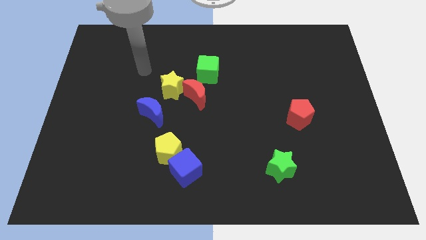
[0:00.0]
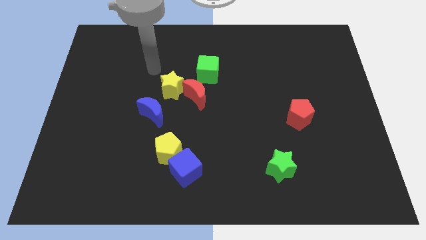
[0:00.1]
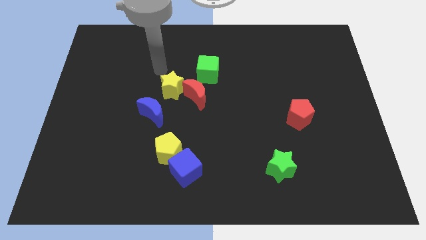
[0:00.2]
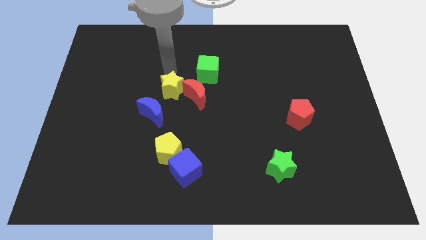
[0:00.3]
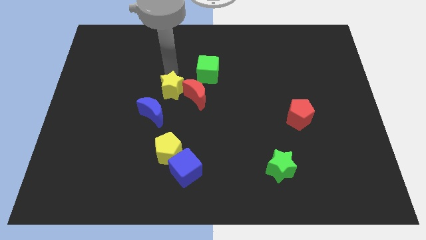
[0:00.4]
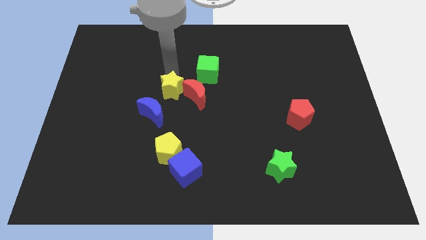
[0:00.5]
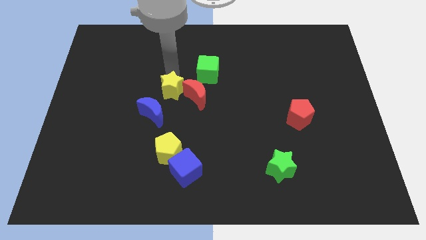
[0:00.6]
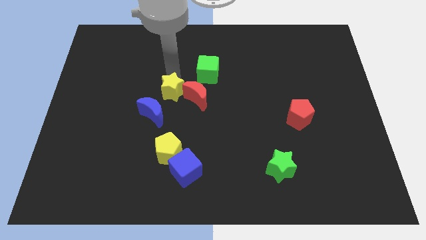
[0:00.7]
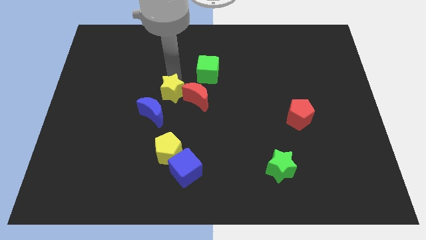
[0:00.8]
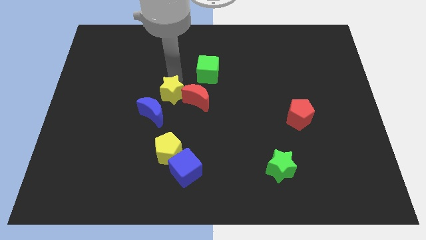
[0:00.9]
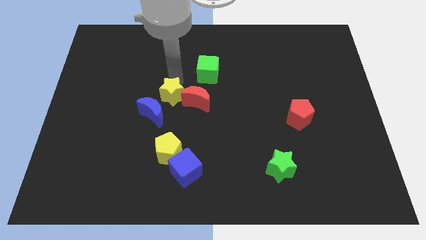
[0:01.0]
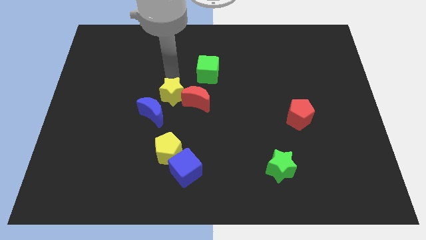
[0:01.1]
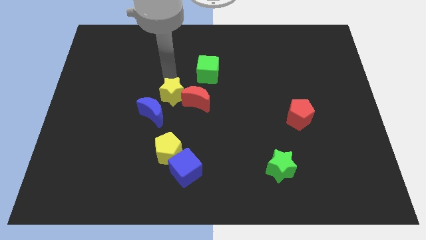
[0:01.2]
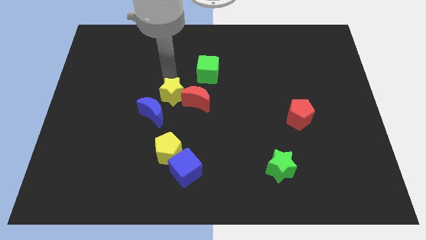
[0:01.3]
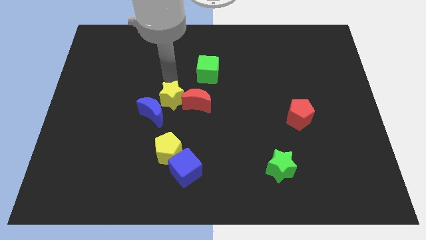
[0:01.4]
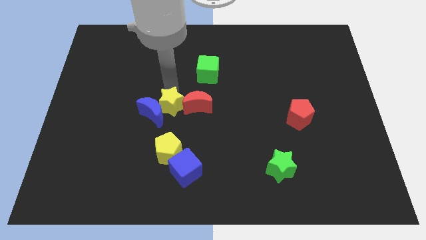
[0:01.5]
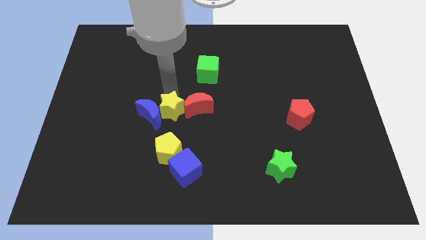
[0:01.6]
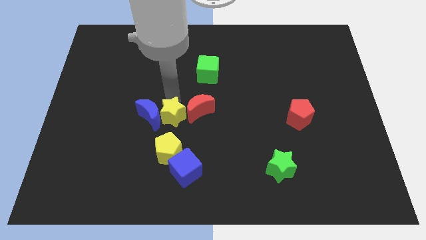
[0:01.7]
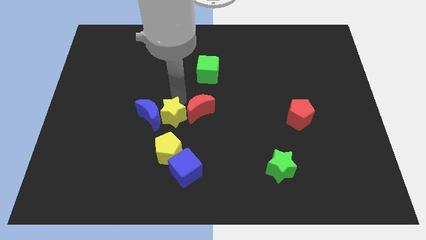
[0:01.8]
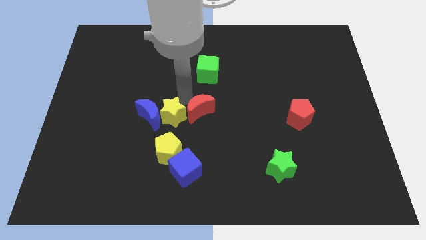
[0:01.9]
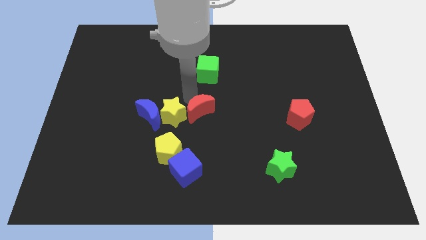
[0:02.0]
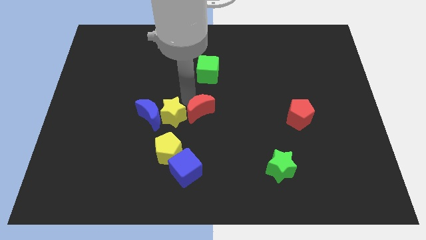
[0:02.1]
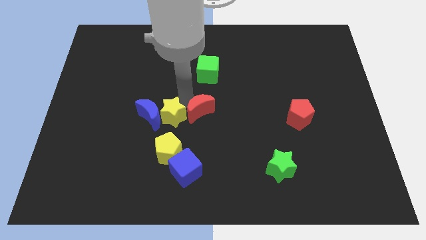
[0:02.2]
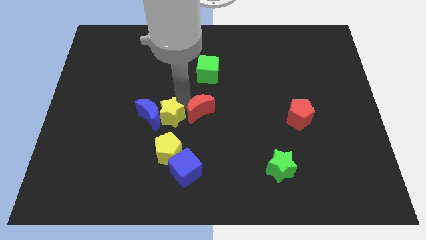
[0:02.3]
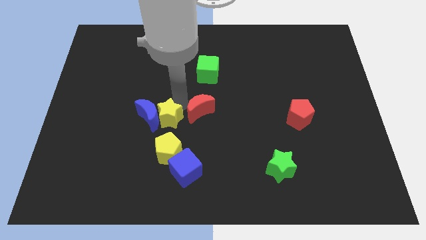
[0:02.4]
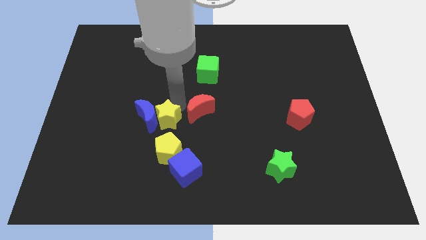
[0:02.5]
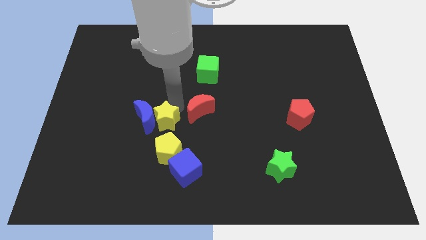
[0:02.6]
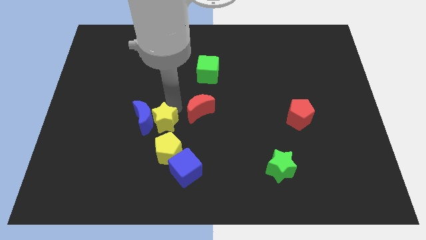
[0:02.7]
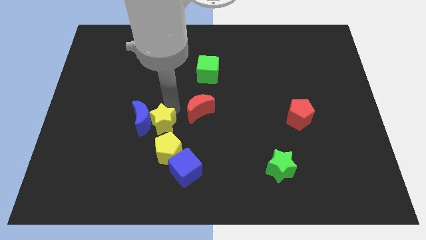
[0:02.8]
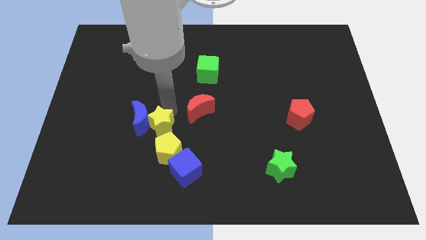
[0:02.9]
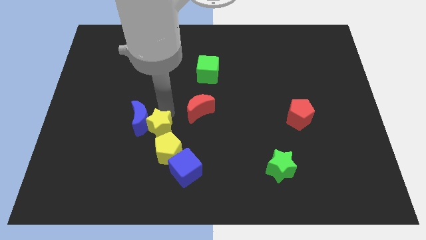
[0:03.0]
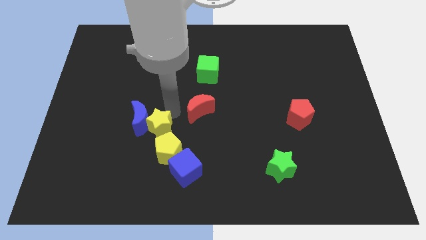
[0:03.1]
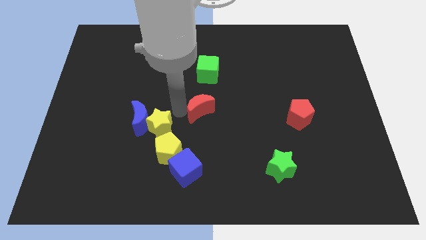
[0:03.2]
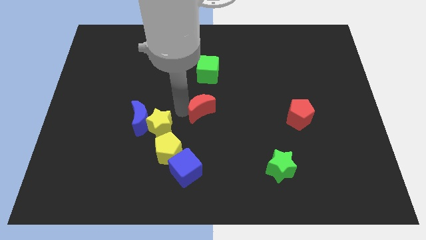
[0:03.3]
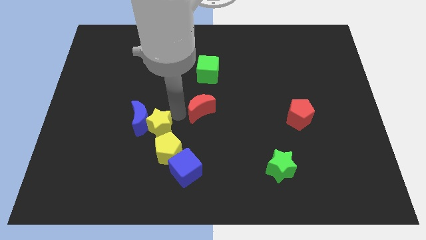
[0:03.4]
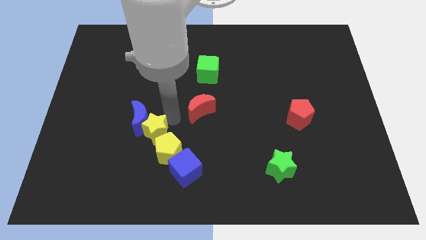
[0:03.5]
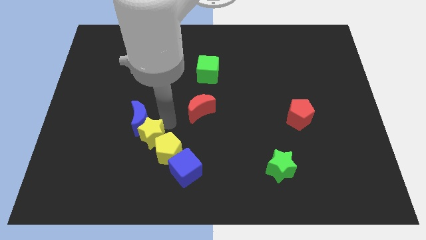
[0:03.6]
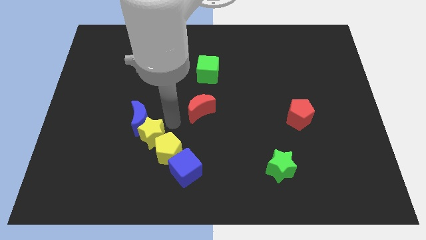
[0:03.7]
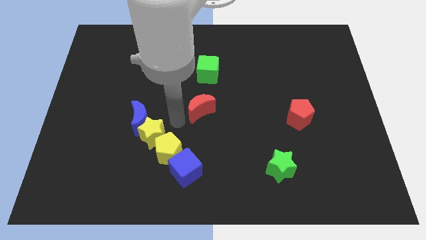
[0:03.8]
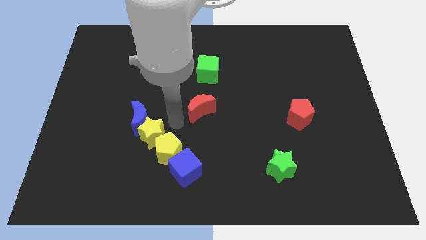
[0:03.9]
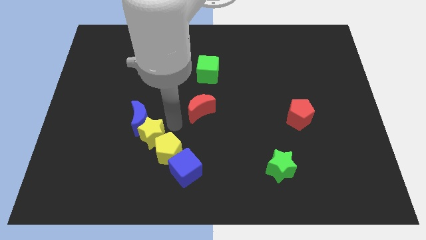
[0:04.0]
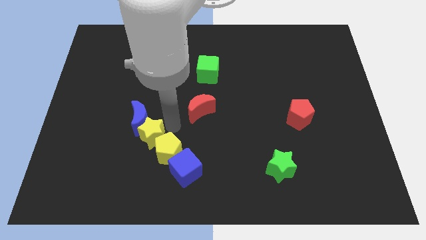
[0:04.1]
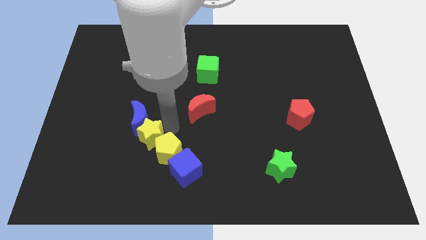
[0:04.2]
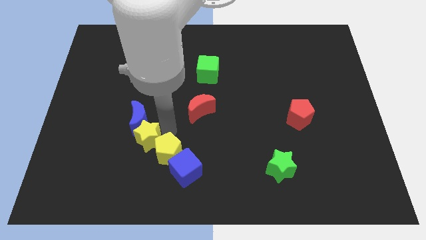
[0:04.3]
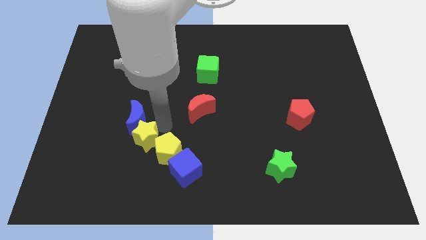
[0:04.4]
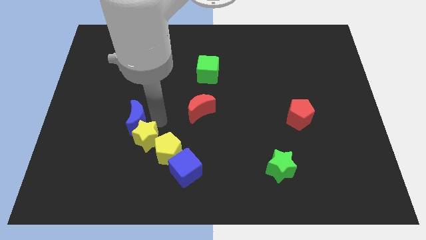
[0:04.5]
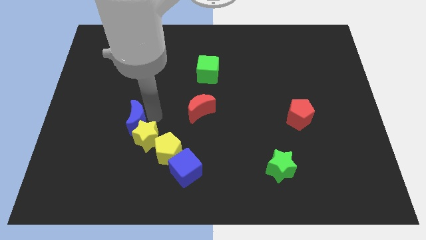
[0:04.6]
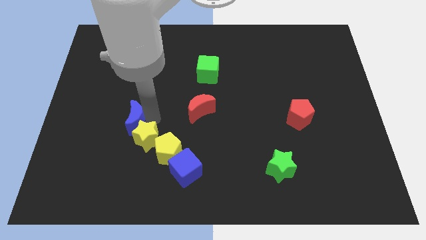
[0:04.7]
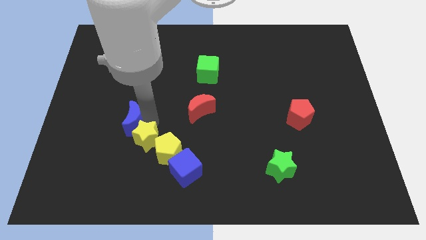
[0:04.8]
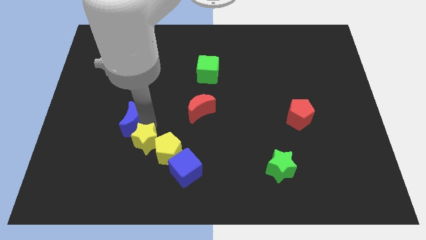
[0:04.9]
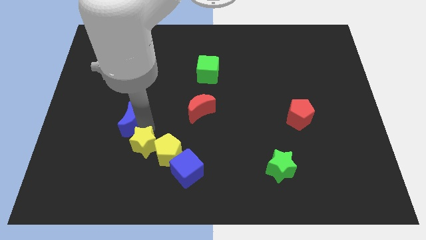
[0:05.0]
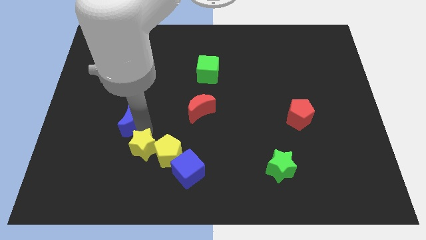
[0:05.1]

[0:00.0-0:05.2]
move the yellow star to the bottom left side of the yellow pentagon

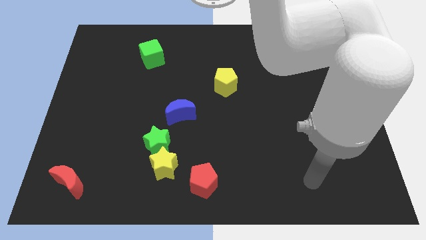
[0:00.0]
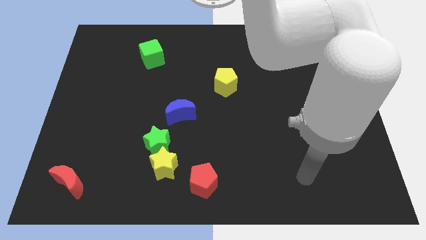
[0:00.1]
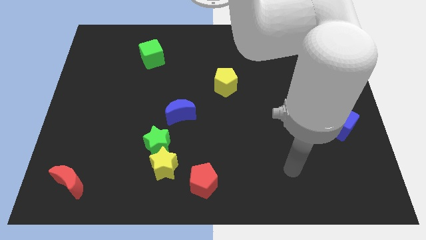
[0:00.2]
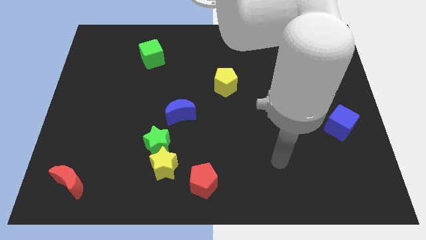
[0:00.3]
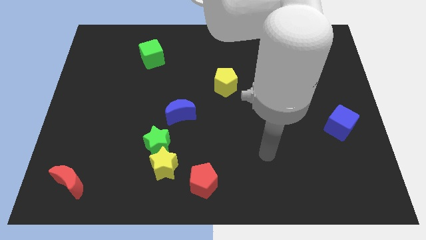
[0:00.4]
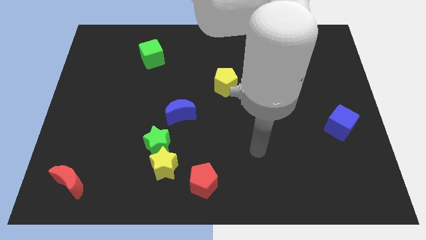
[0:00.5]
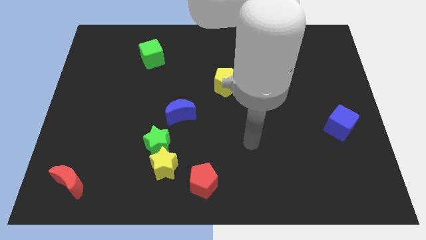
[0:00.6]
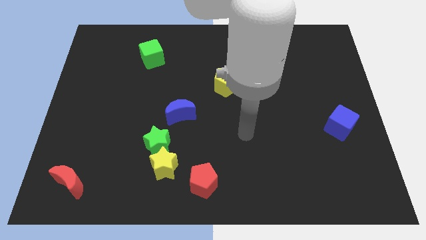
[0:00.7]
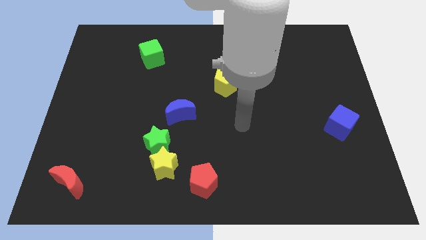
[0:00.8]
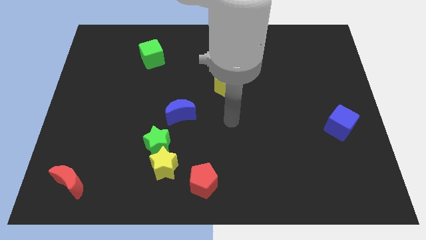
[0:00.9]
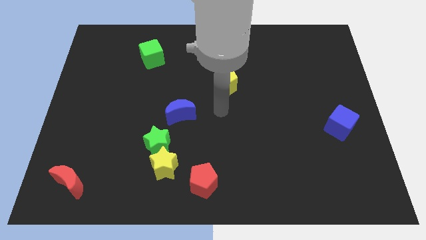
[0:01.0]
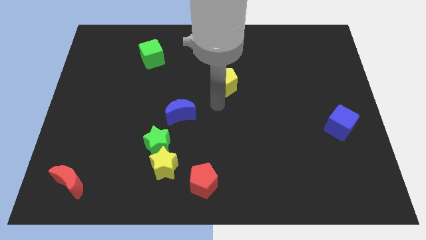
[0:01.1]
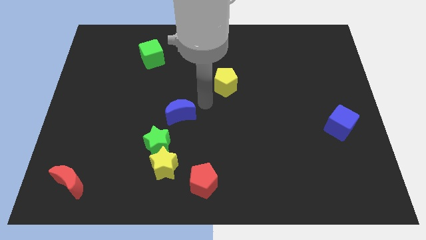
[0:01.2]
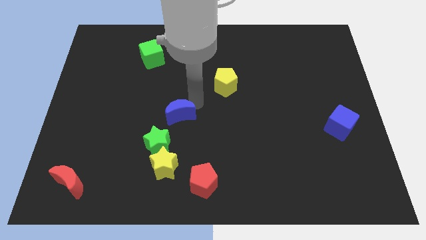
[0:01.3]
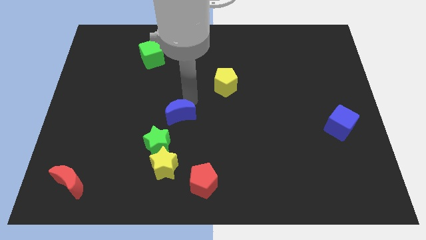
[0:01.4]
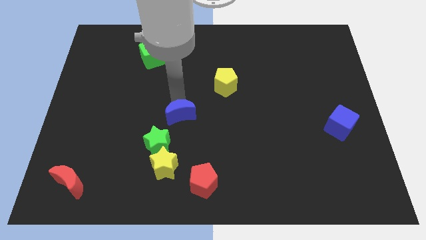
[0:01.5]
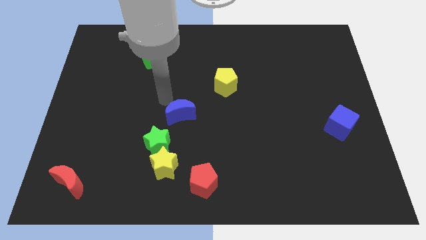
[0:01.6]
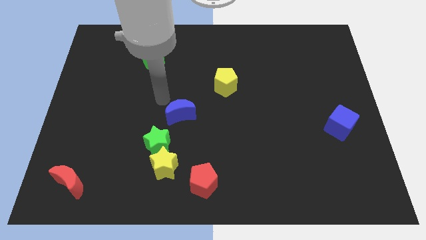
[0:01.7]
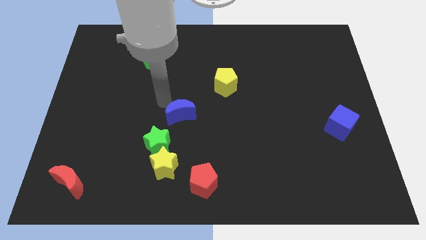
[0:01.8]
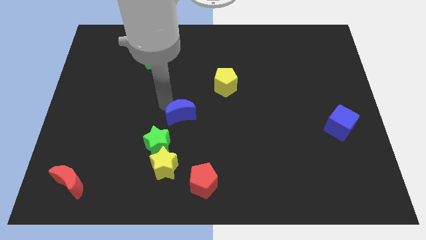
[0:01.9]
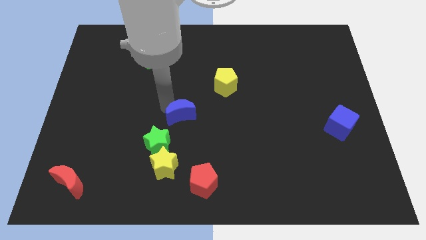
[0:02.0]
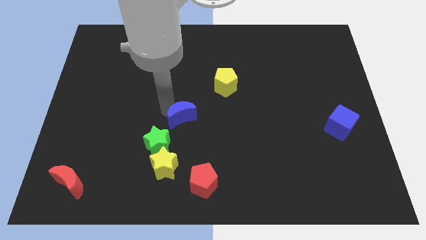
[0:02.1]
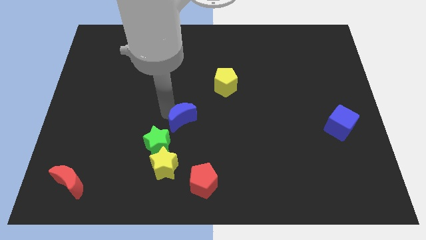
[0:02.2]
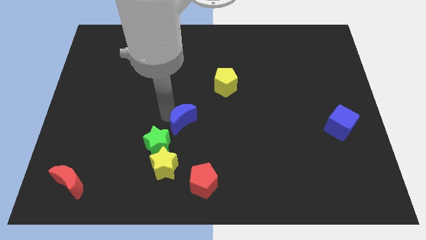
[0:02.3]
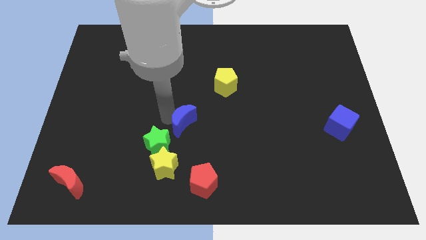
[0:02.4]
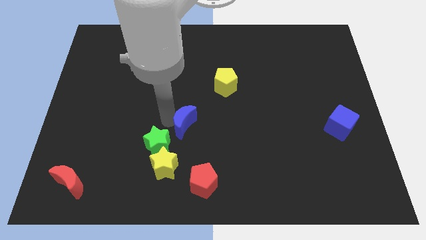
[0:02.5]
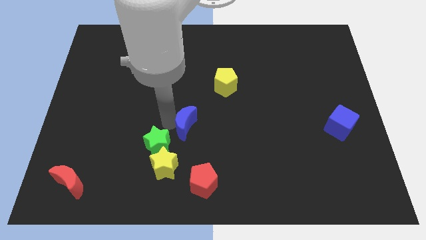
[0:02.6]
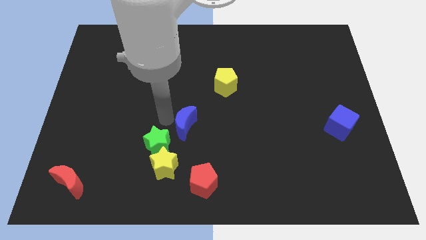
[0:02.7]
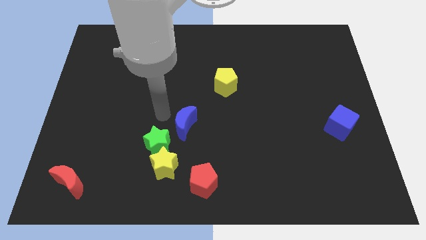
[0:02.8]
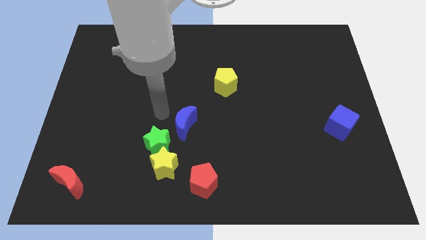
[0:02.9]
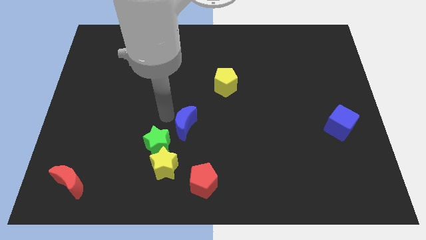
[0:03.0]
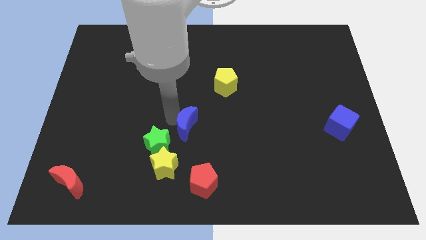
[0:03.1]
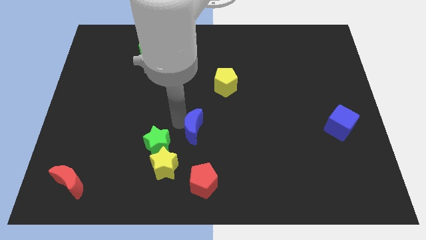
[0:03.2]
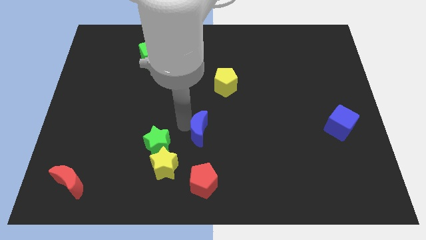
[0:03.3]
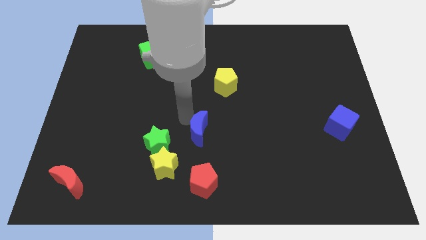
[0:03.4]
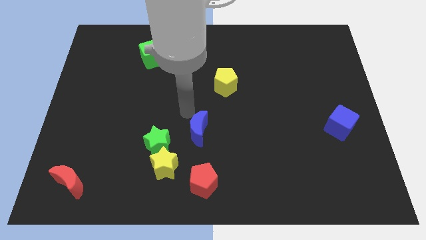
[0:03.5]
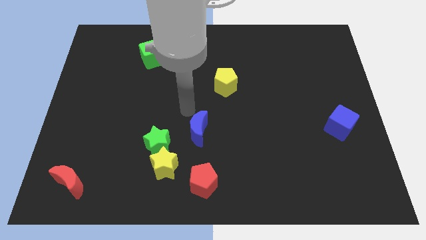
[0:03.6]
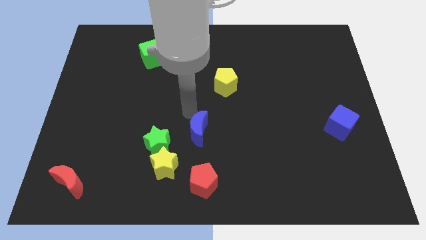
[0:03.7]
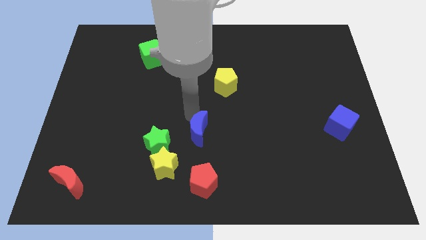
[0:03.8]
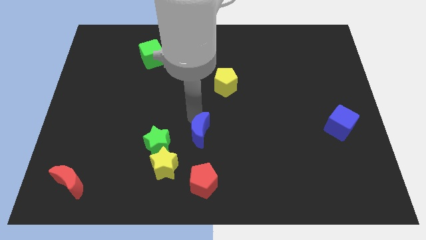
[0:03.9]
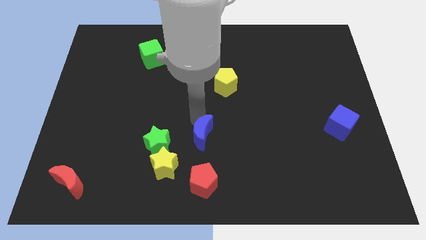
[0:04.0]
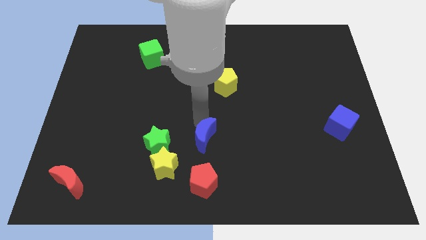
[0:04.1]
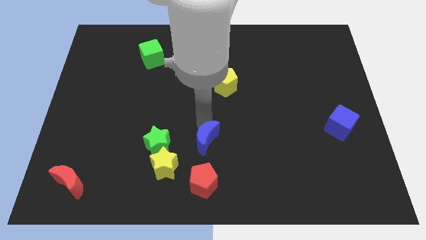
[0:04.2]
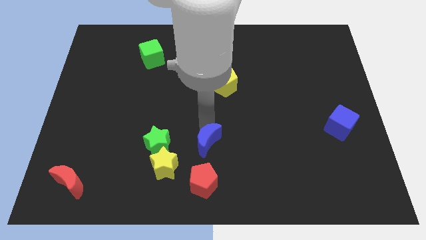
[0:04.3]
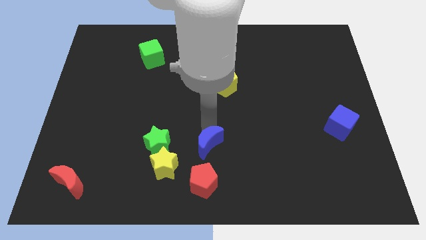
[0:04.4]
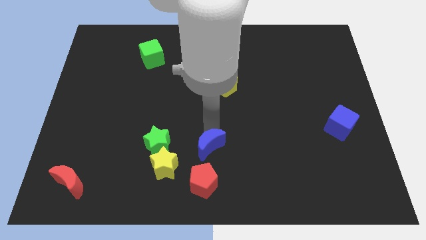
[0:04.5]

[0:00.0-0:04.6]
put the blue moon just right of the yellow star
